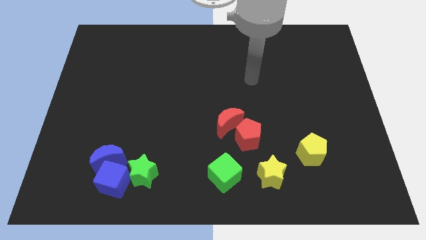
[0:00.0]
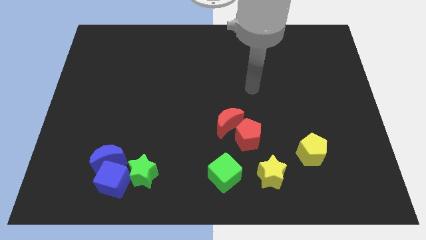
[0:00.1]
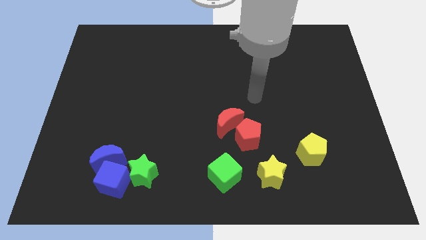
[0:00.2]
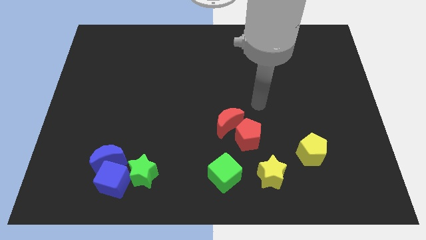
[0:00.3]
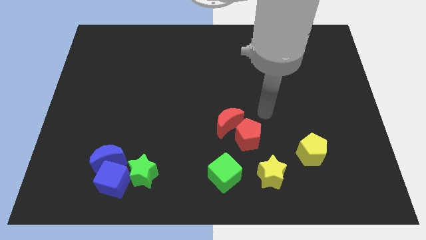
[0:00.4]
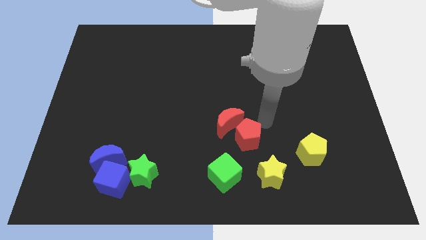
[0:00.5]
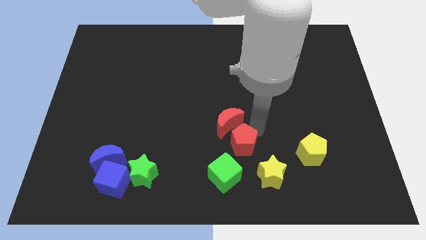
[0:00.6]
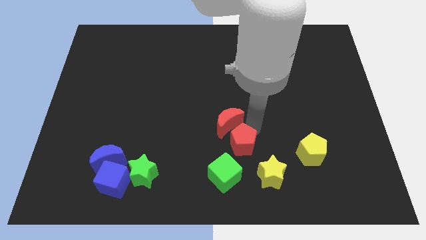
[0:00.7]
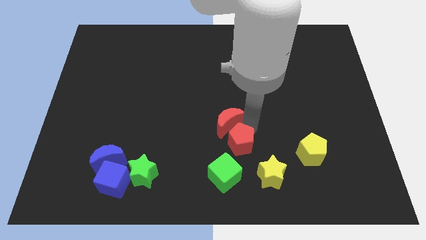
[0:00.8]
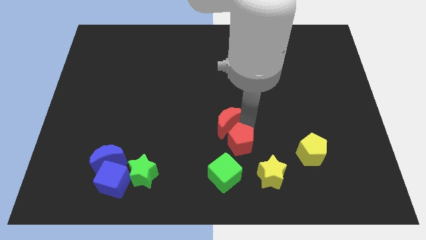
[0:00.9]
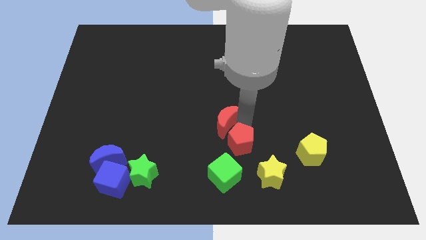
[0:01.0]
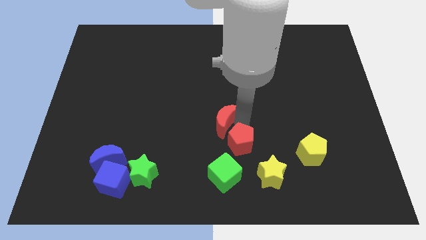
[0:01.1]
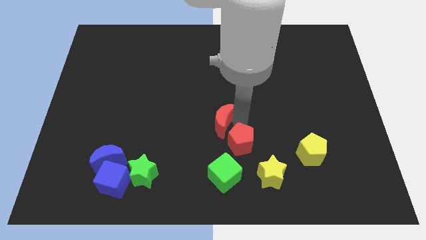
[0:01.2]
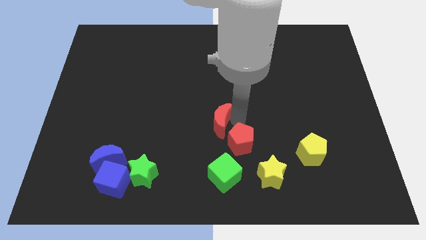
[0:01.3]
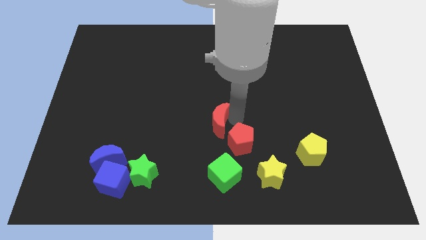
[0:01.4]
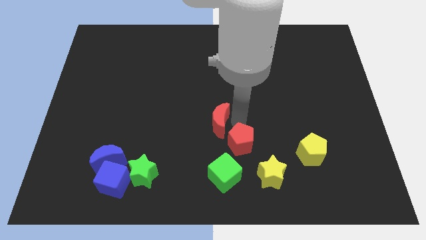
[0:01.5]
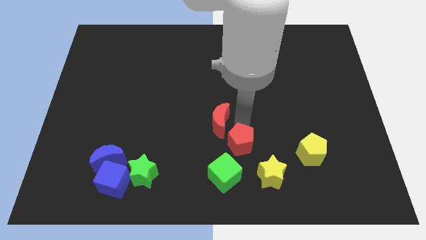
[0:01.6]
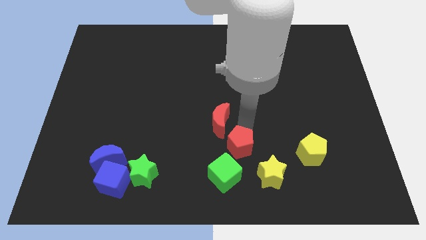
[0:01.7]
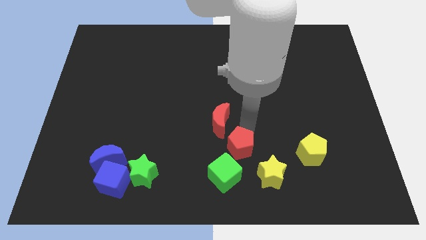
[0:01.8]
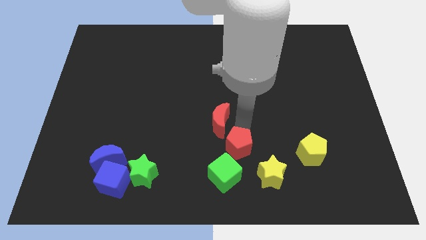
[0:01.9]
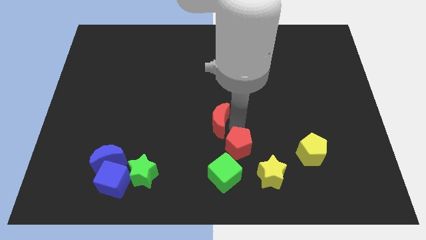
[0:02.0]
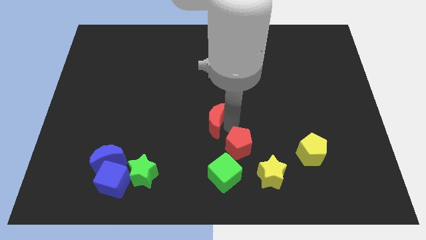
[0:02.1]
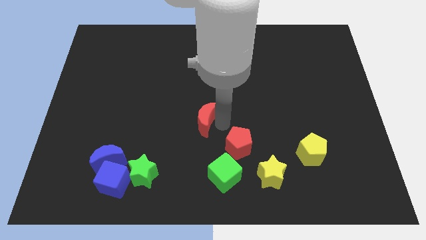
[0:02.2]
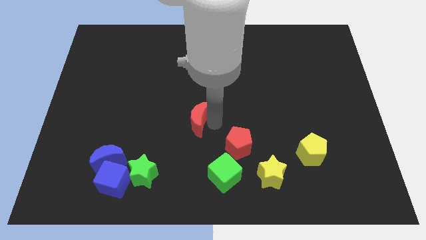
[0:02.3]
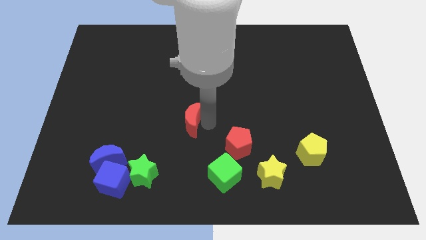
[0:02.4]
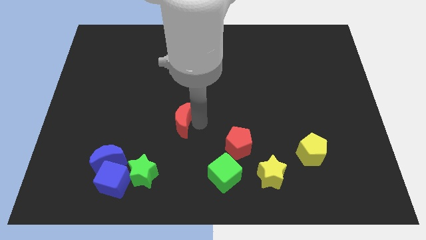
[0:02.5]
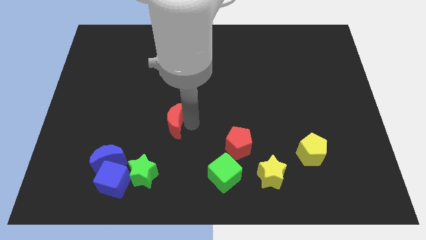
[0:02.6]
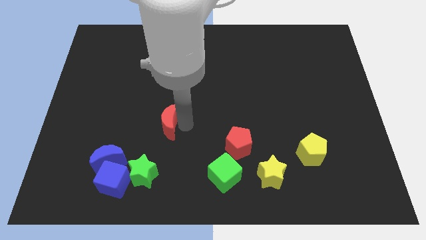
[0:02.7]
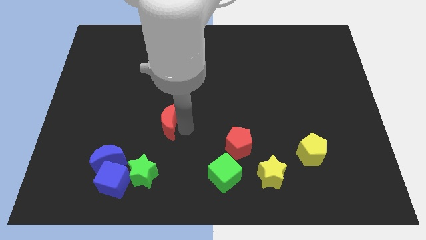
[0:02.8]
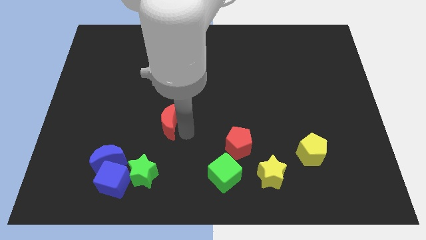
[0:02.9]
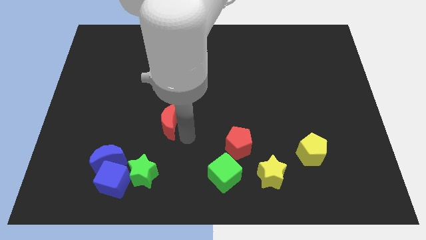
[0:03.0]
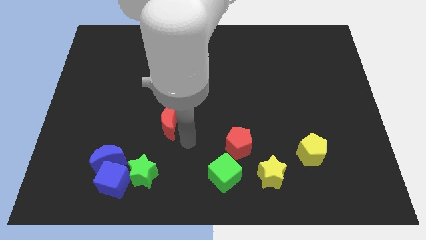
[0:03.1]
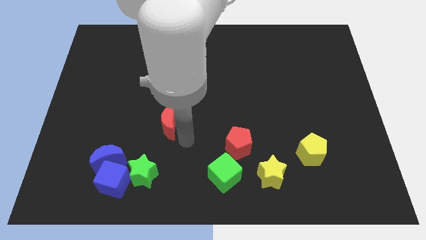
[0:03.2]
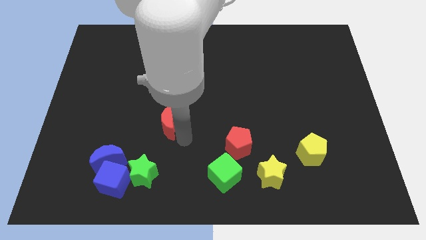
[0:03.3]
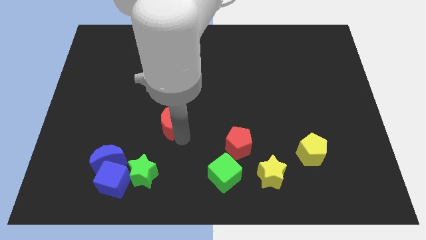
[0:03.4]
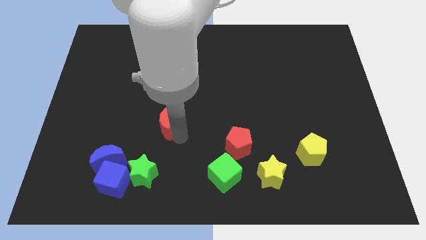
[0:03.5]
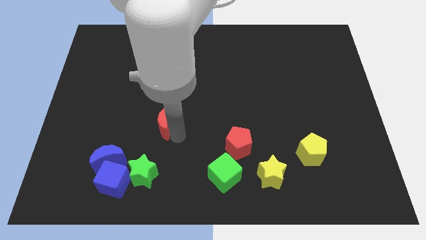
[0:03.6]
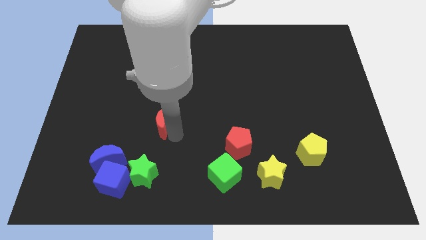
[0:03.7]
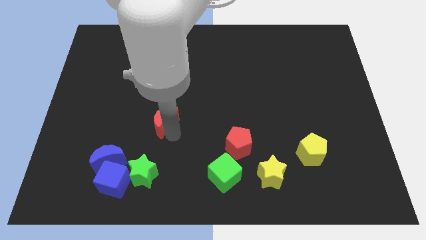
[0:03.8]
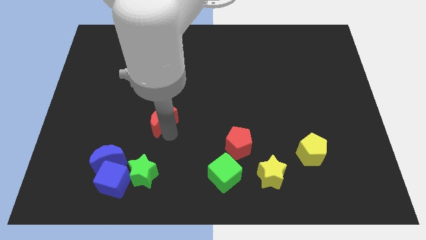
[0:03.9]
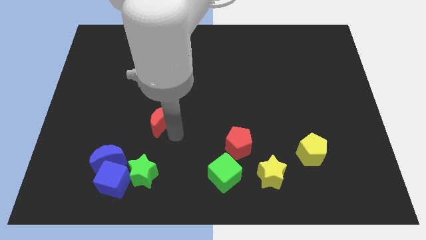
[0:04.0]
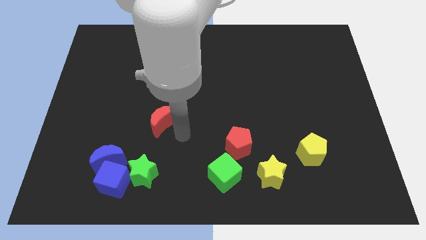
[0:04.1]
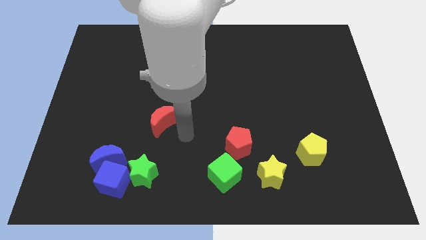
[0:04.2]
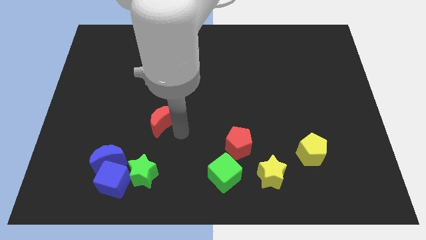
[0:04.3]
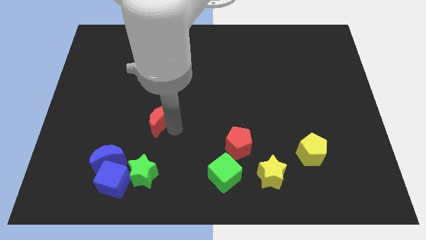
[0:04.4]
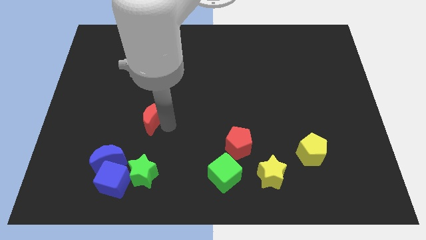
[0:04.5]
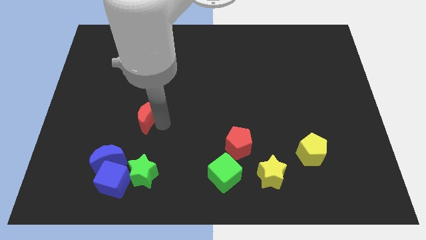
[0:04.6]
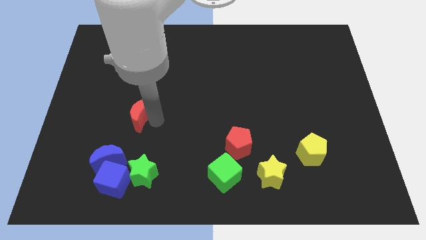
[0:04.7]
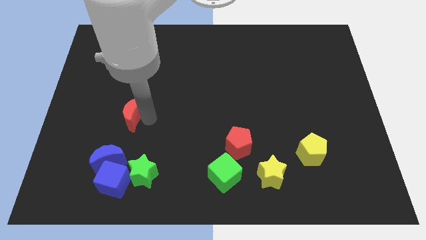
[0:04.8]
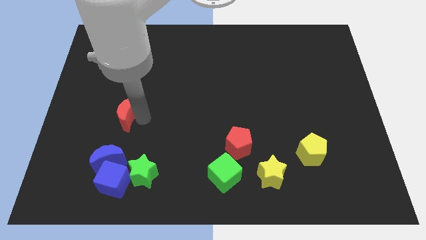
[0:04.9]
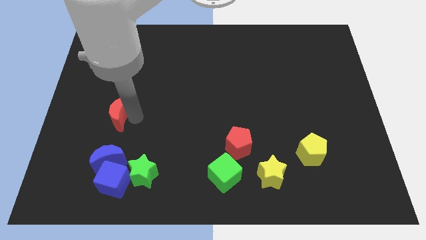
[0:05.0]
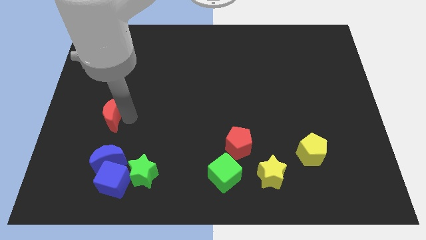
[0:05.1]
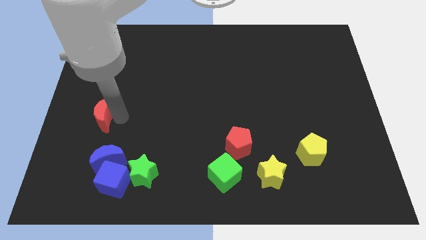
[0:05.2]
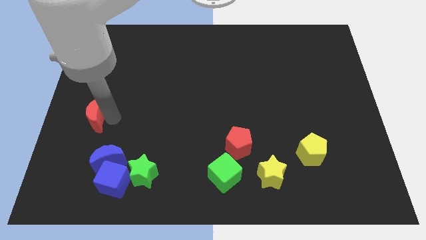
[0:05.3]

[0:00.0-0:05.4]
push the red moon to the left side

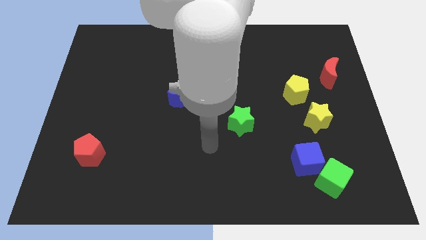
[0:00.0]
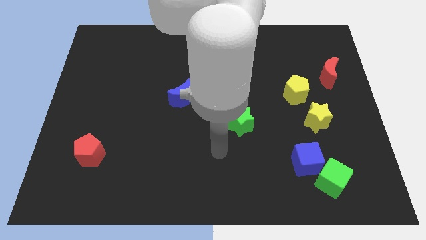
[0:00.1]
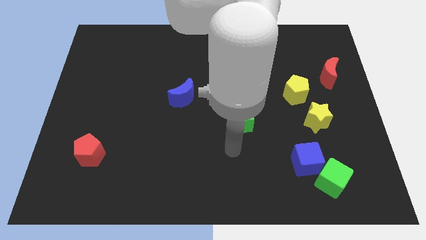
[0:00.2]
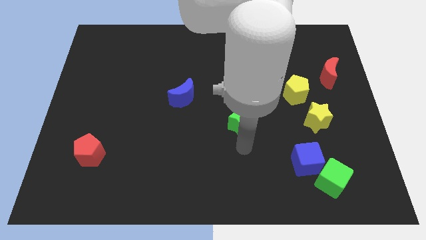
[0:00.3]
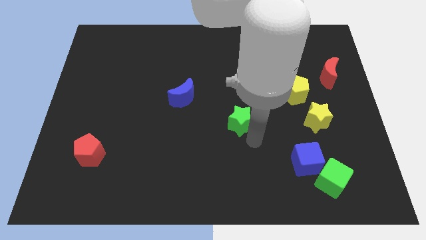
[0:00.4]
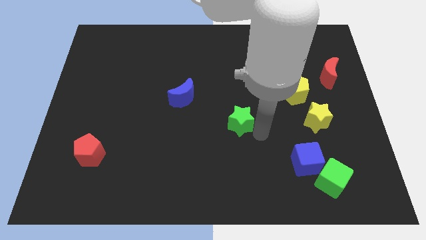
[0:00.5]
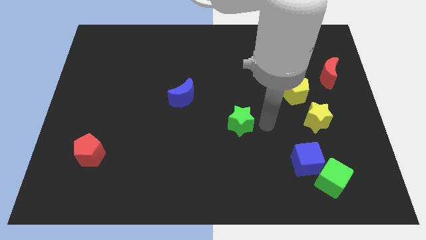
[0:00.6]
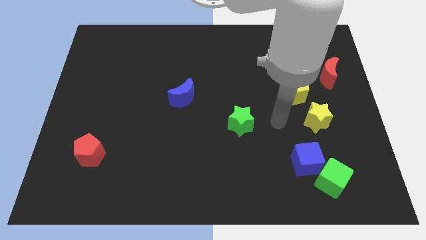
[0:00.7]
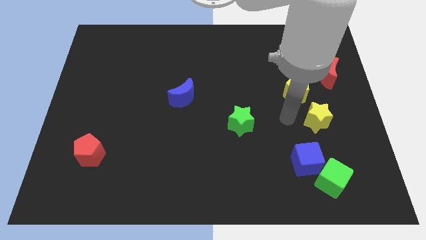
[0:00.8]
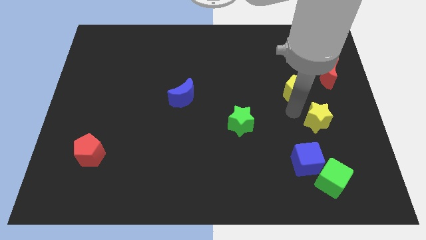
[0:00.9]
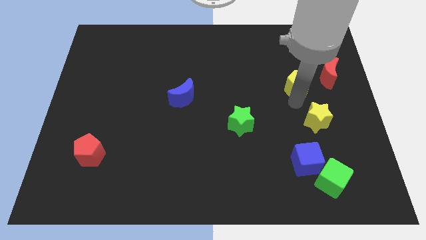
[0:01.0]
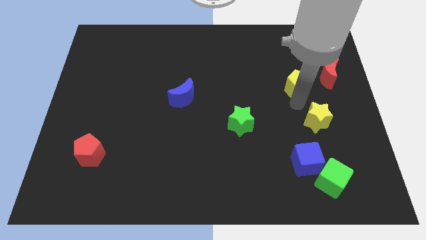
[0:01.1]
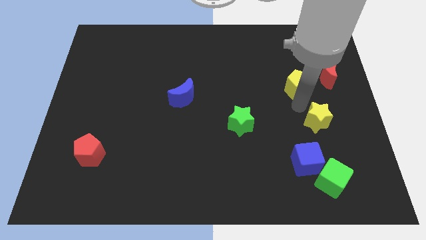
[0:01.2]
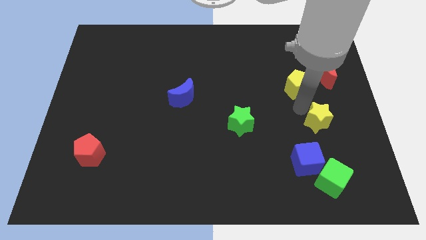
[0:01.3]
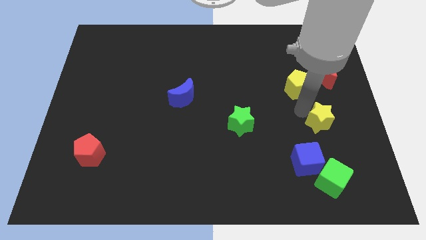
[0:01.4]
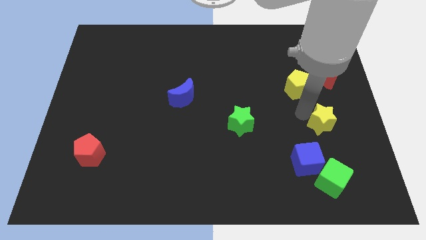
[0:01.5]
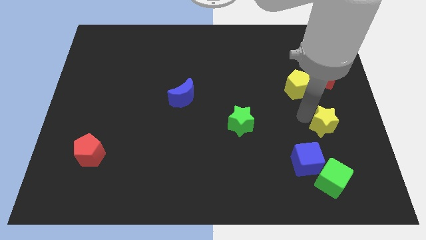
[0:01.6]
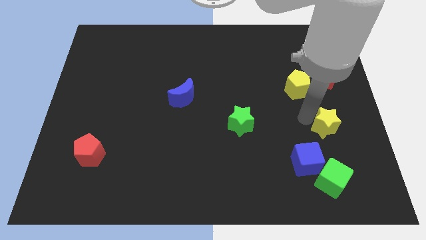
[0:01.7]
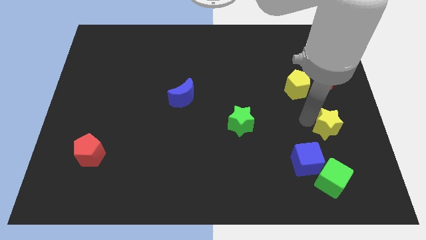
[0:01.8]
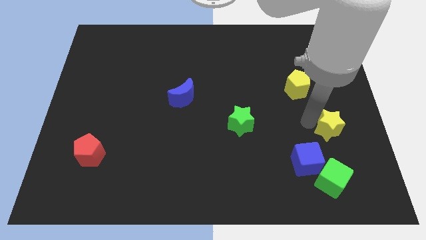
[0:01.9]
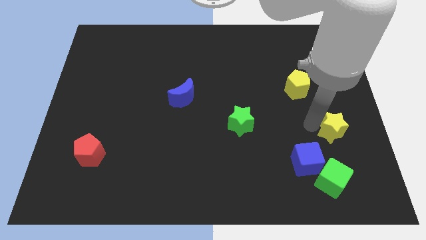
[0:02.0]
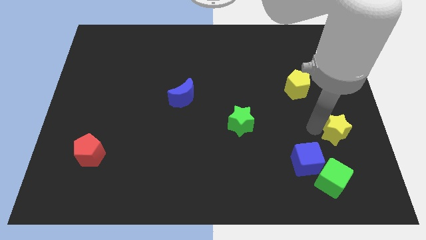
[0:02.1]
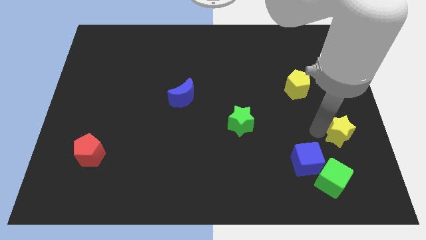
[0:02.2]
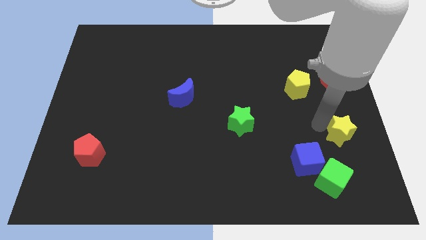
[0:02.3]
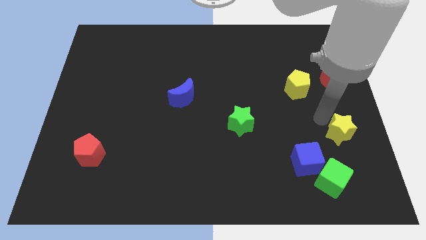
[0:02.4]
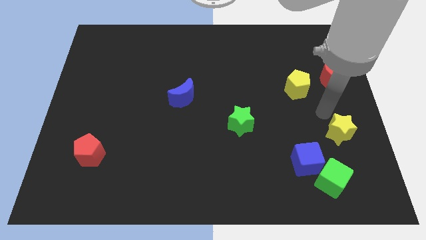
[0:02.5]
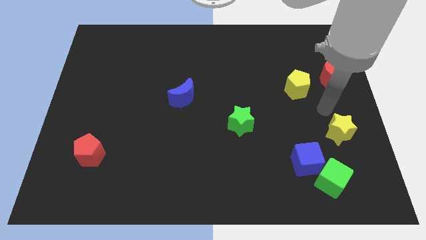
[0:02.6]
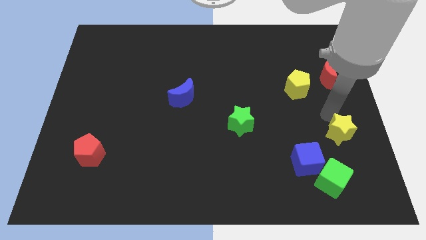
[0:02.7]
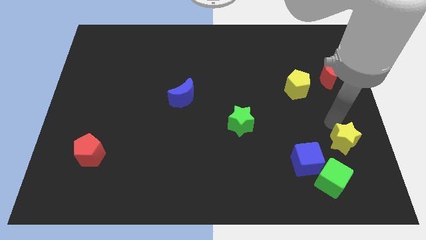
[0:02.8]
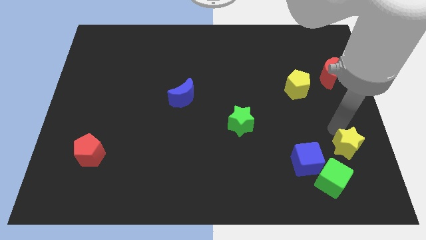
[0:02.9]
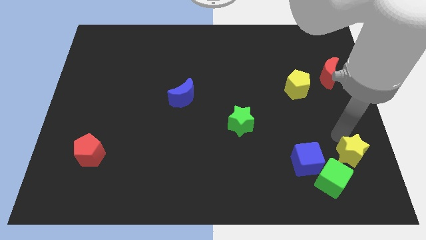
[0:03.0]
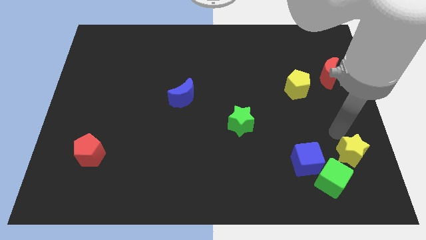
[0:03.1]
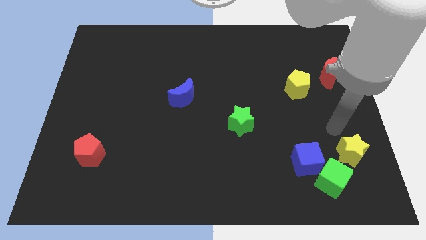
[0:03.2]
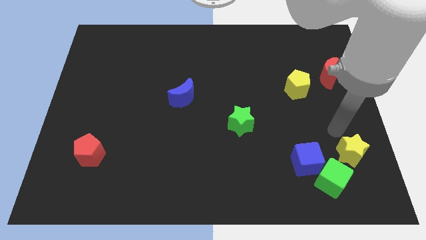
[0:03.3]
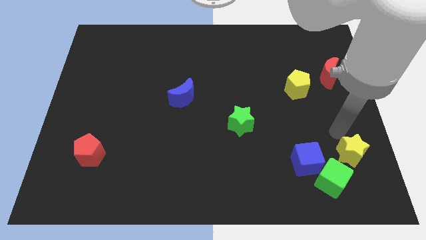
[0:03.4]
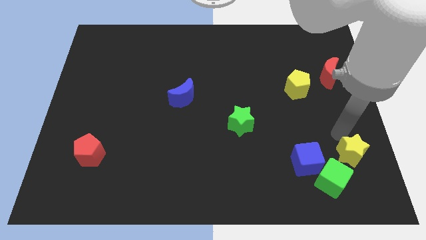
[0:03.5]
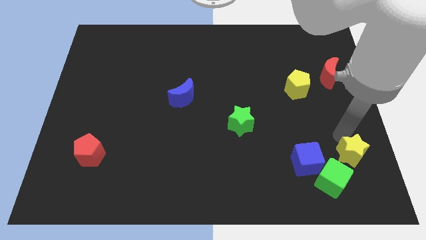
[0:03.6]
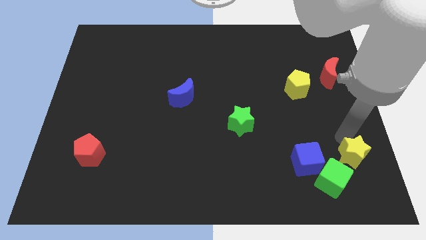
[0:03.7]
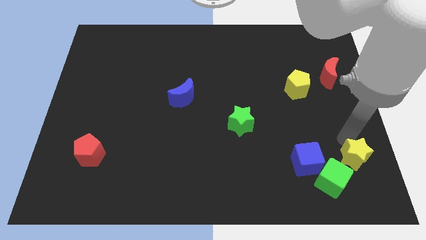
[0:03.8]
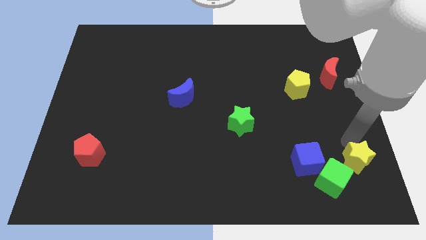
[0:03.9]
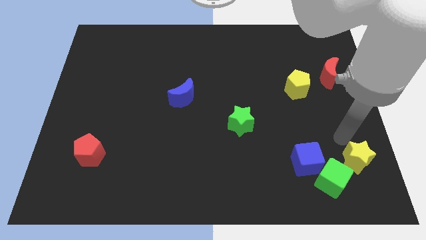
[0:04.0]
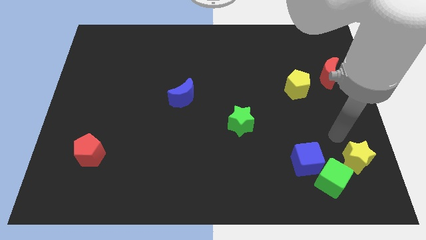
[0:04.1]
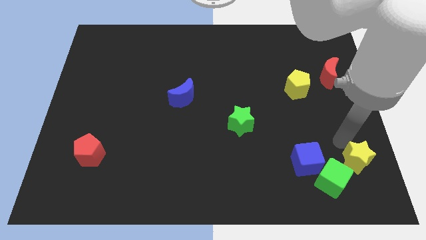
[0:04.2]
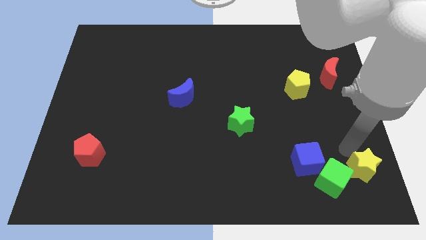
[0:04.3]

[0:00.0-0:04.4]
put the yellow star to the bottom right
